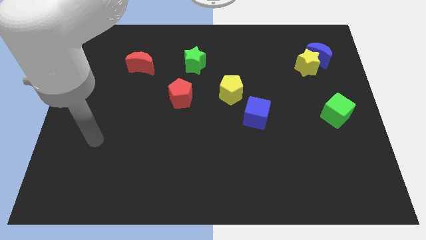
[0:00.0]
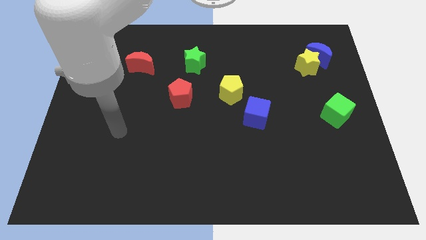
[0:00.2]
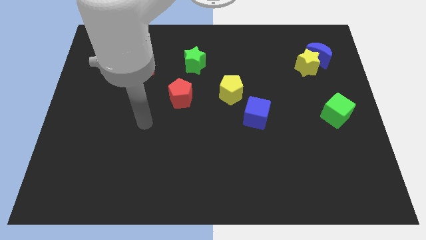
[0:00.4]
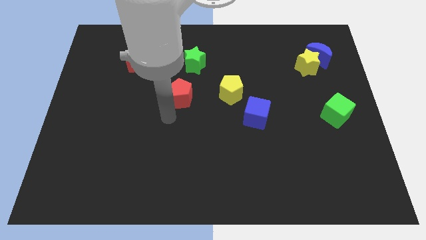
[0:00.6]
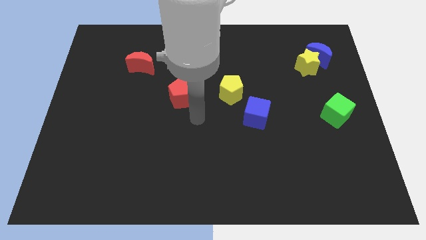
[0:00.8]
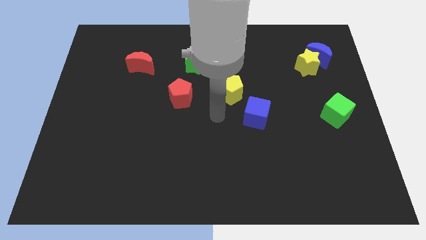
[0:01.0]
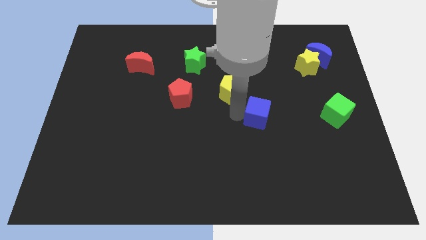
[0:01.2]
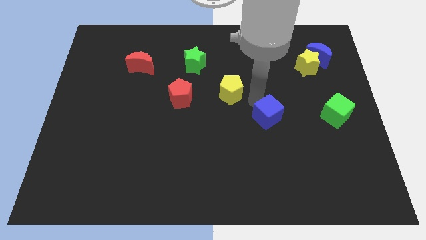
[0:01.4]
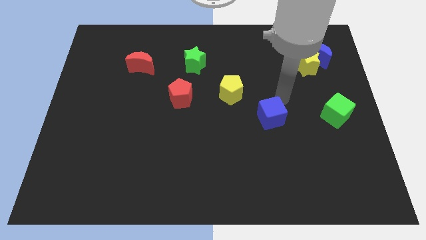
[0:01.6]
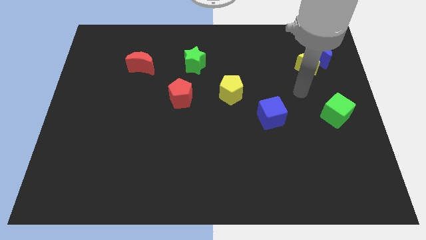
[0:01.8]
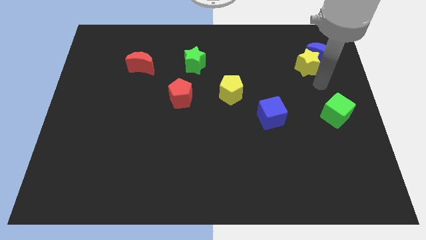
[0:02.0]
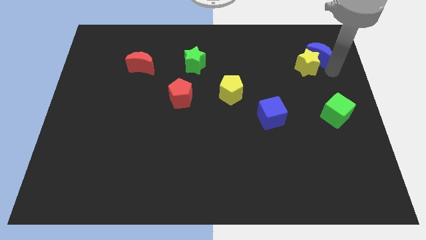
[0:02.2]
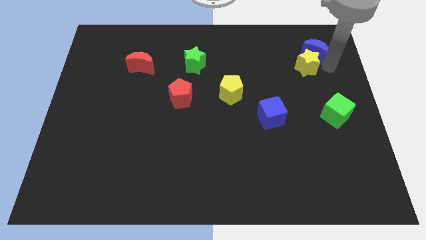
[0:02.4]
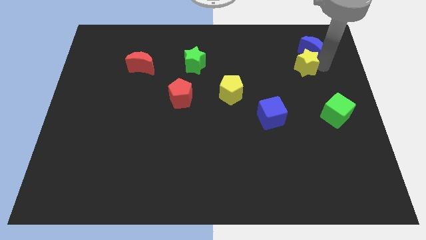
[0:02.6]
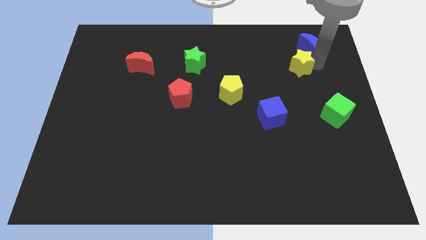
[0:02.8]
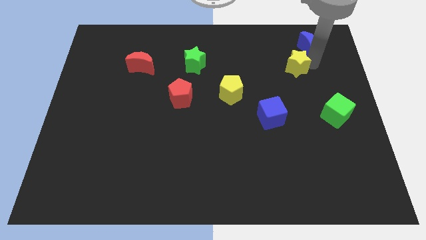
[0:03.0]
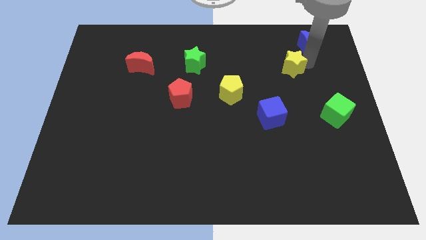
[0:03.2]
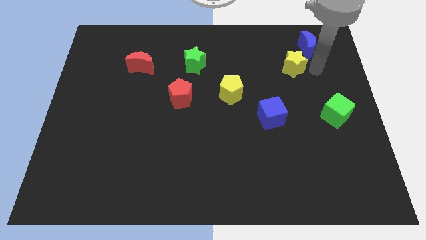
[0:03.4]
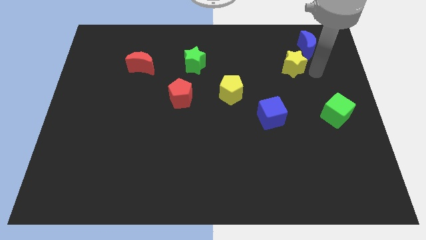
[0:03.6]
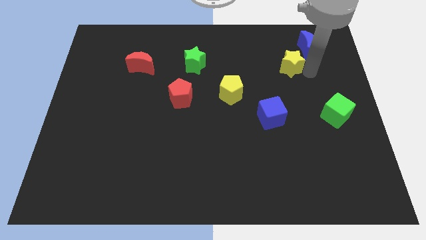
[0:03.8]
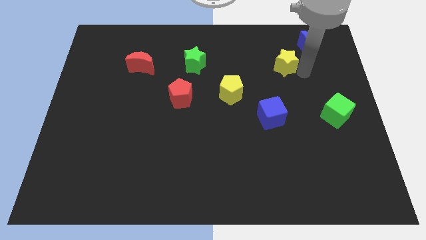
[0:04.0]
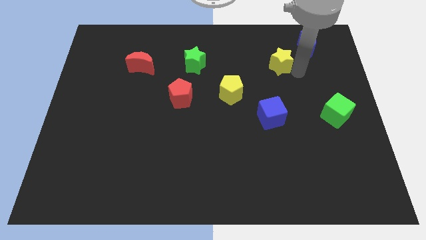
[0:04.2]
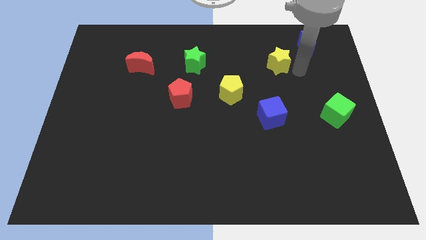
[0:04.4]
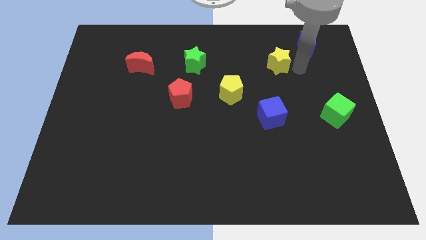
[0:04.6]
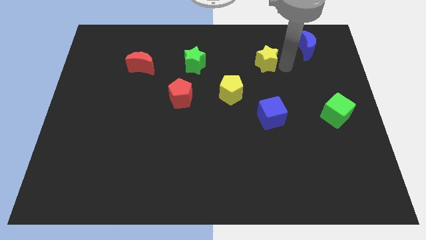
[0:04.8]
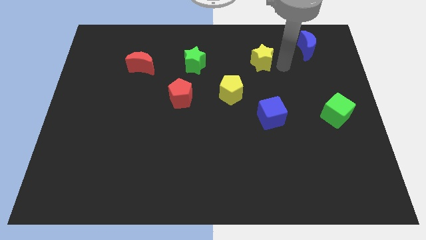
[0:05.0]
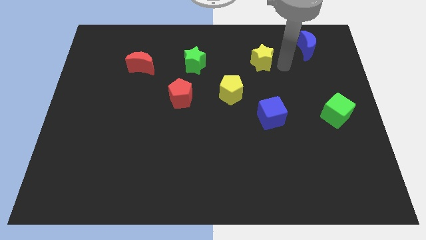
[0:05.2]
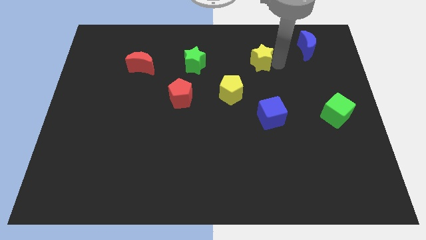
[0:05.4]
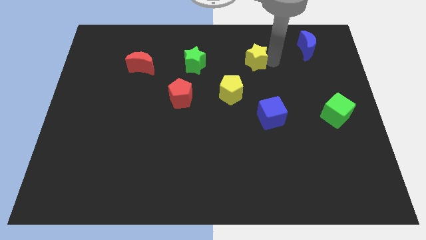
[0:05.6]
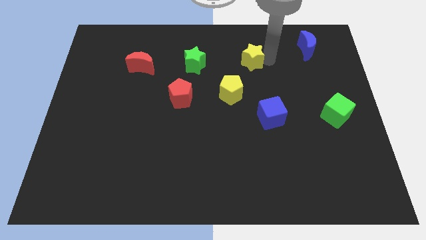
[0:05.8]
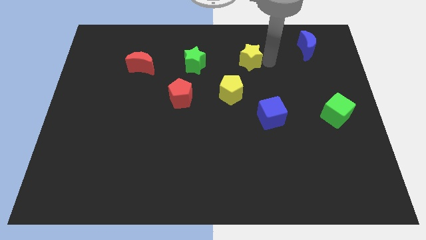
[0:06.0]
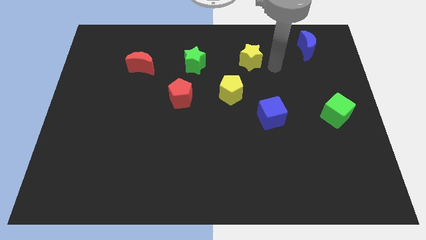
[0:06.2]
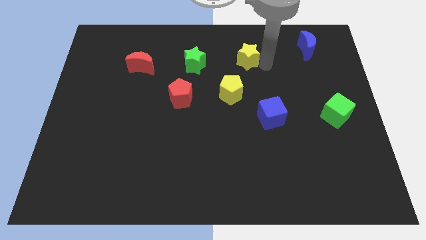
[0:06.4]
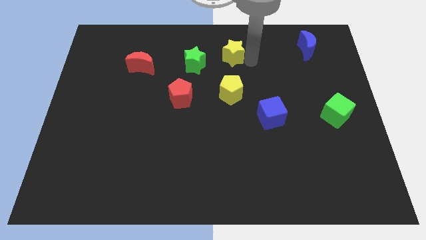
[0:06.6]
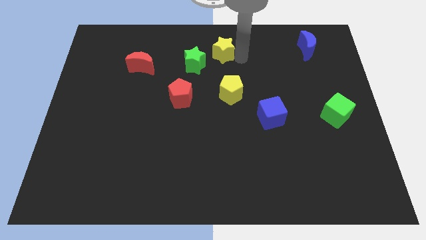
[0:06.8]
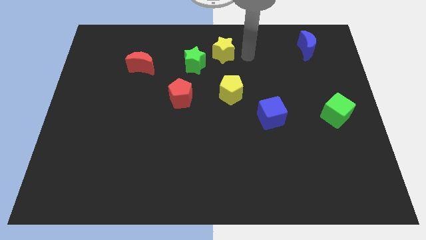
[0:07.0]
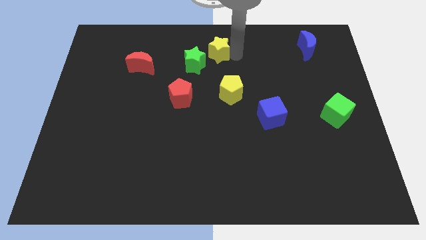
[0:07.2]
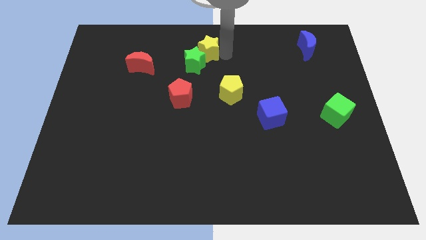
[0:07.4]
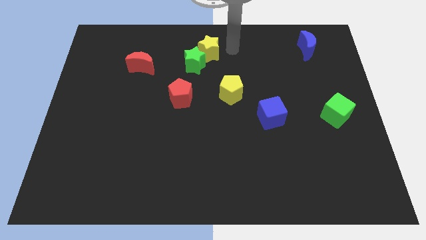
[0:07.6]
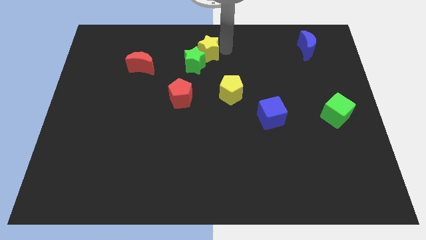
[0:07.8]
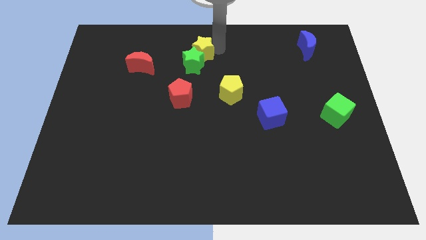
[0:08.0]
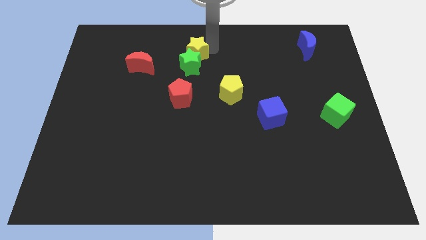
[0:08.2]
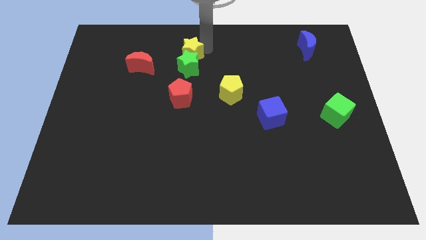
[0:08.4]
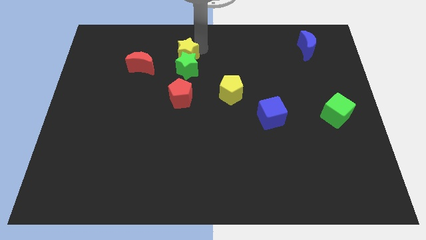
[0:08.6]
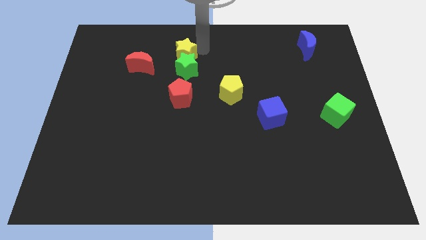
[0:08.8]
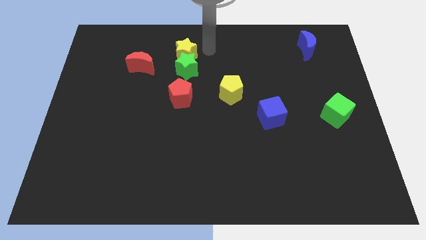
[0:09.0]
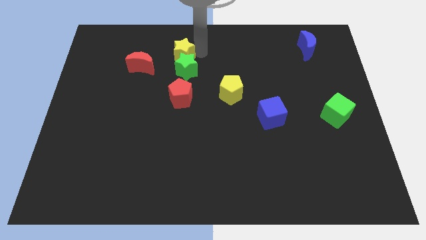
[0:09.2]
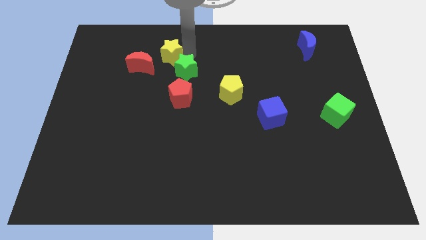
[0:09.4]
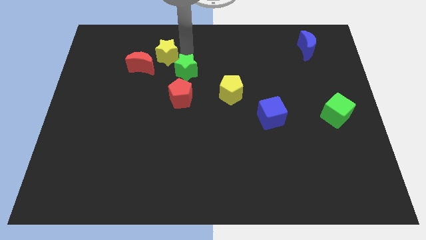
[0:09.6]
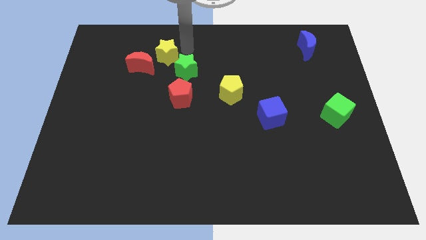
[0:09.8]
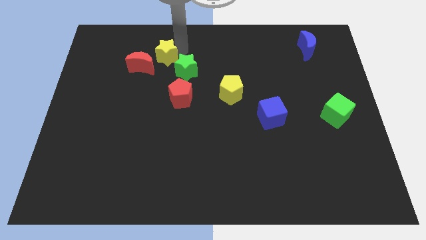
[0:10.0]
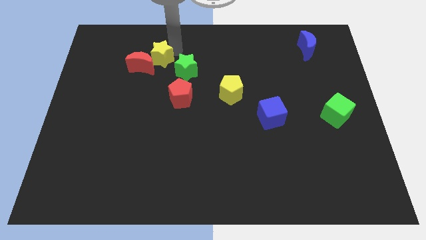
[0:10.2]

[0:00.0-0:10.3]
put the yellow star to the red moon

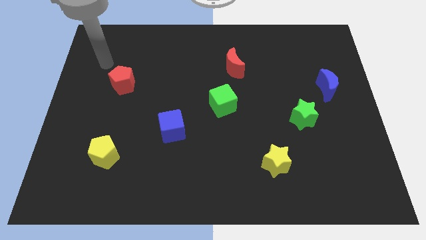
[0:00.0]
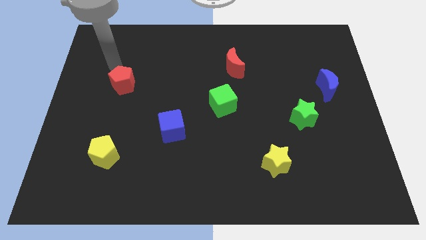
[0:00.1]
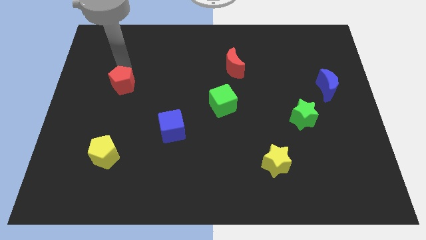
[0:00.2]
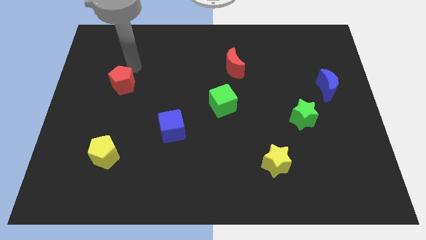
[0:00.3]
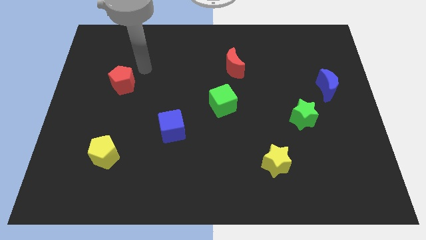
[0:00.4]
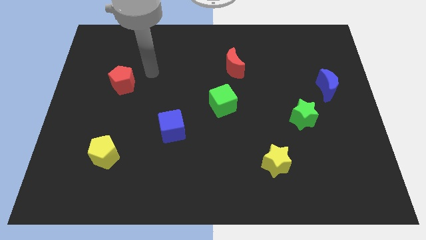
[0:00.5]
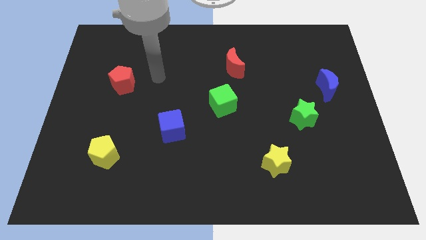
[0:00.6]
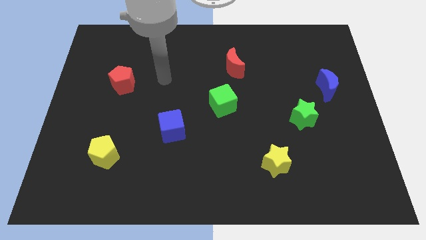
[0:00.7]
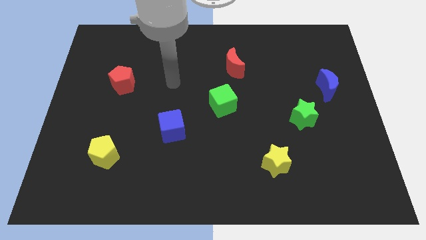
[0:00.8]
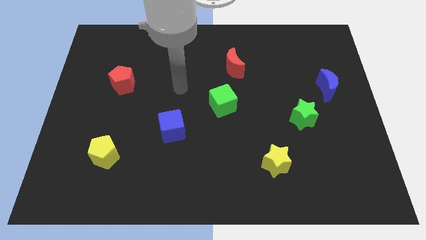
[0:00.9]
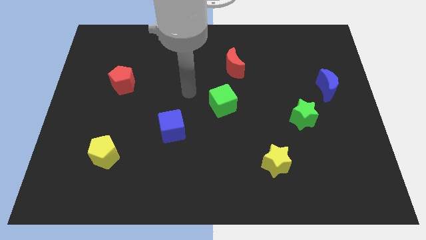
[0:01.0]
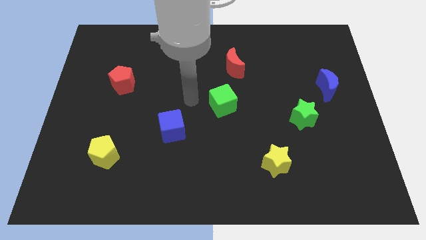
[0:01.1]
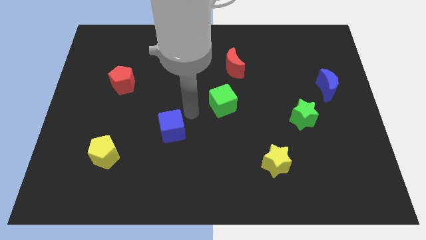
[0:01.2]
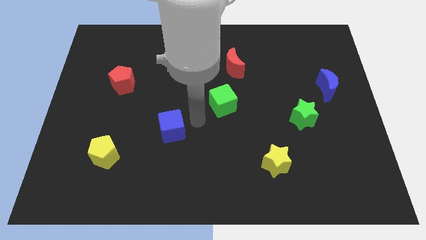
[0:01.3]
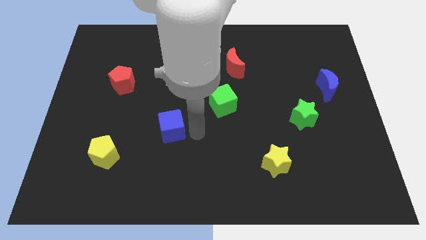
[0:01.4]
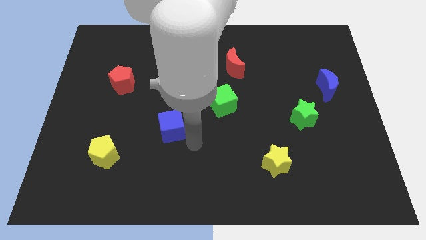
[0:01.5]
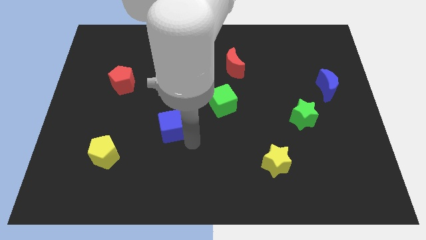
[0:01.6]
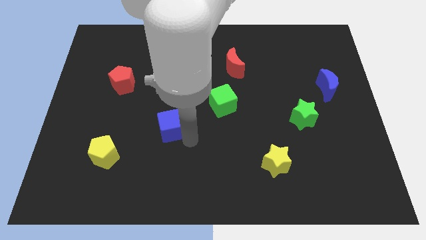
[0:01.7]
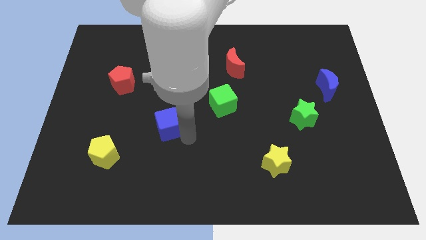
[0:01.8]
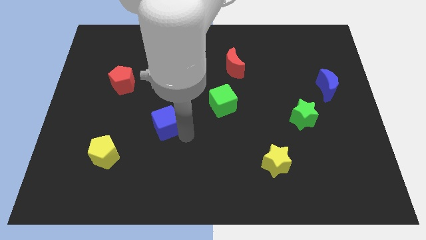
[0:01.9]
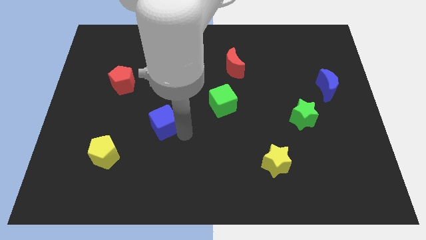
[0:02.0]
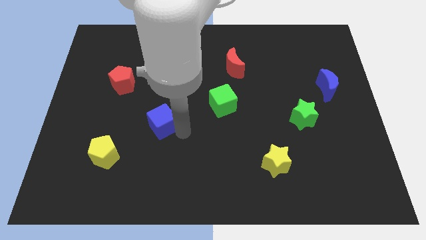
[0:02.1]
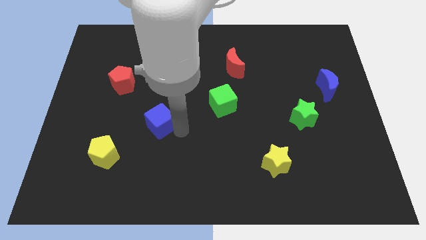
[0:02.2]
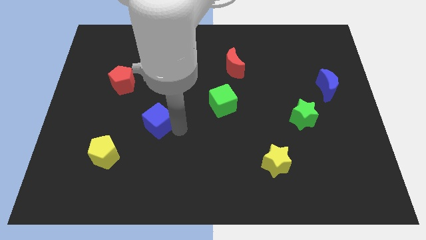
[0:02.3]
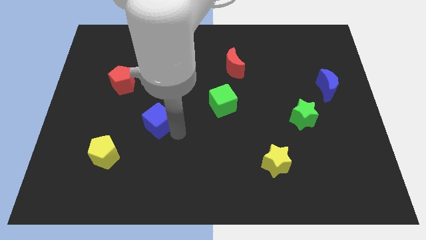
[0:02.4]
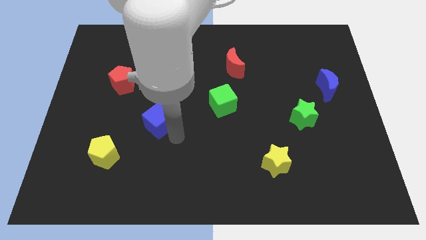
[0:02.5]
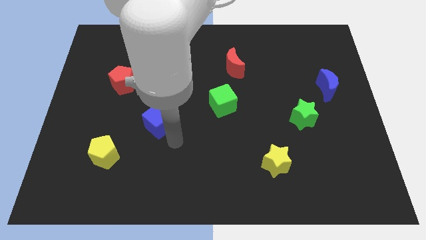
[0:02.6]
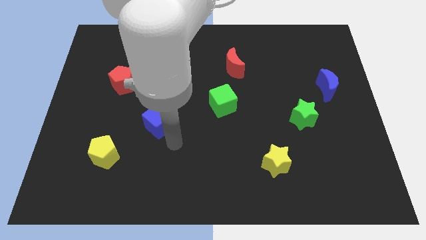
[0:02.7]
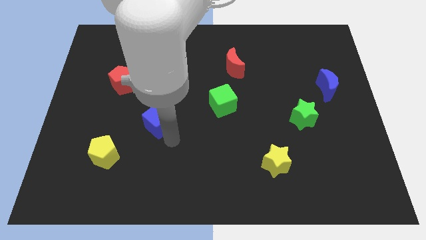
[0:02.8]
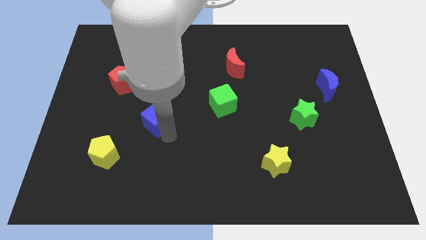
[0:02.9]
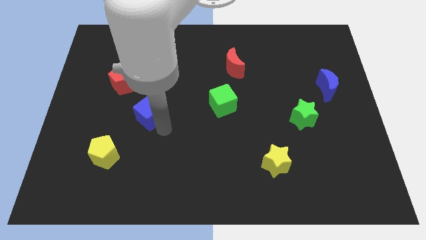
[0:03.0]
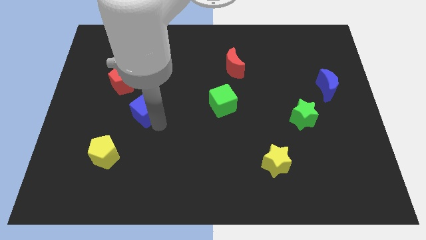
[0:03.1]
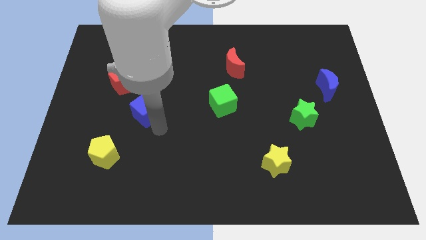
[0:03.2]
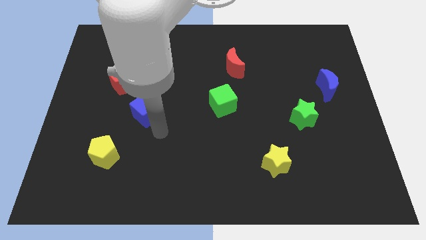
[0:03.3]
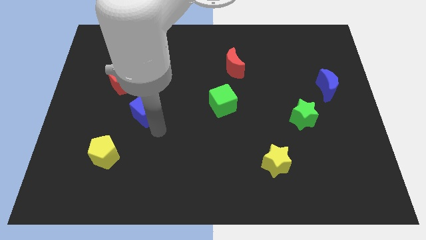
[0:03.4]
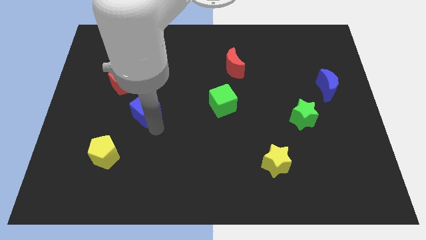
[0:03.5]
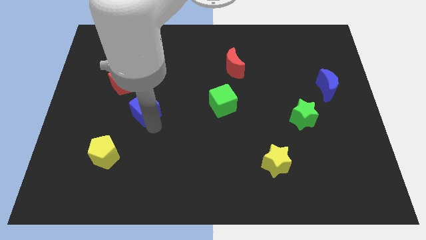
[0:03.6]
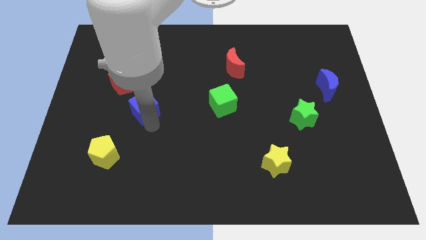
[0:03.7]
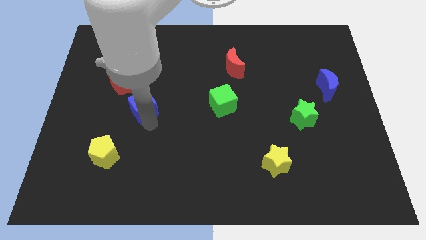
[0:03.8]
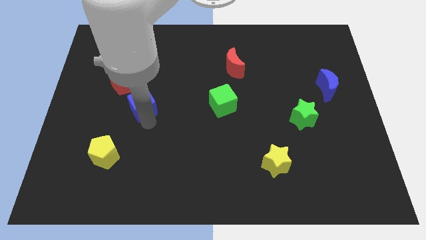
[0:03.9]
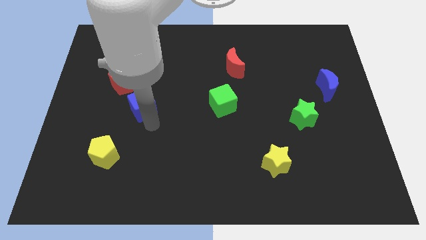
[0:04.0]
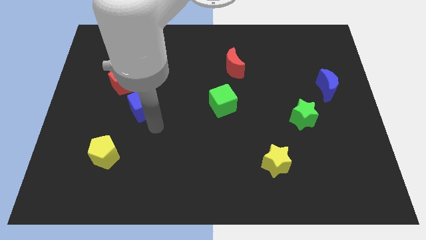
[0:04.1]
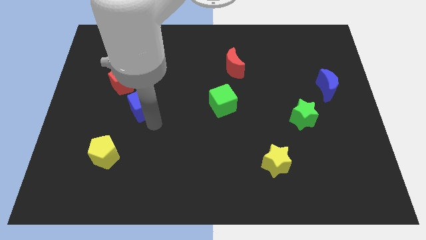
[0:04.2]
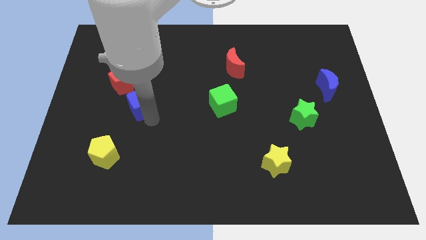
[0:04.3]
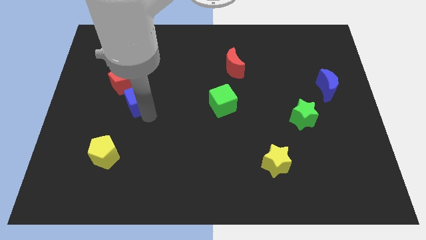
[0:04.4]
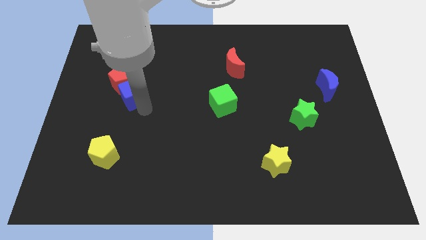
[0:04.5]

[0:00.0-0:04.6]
slide the blue cube towards the red pentagon
